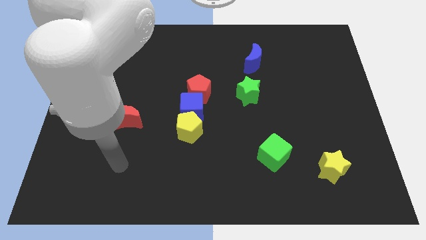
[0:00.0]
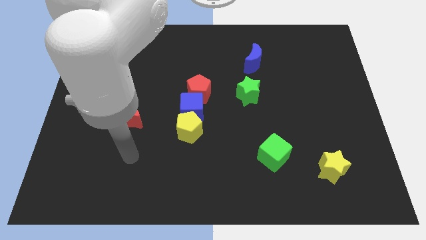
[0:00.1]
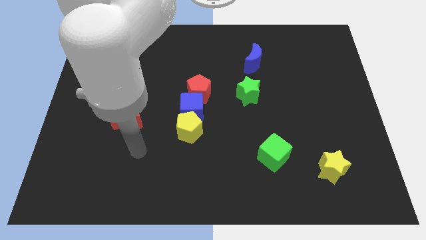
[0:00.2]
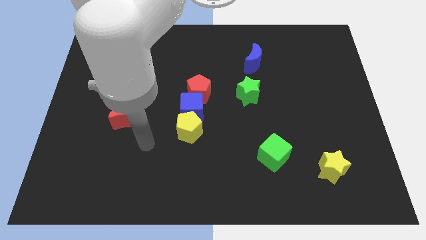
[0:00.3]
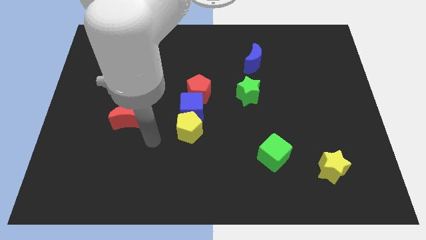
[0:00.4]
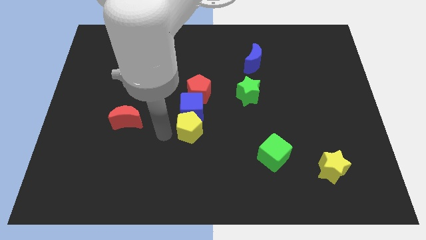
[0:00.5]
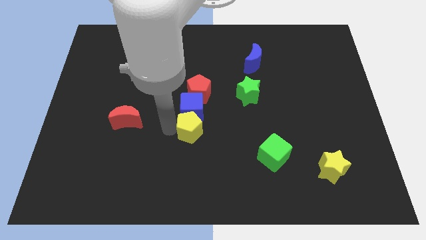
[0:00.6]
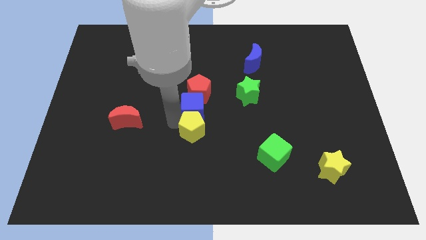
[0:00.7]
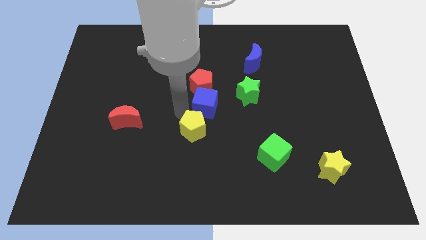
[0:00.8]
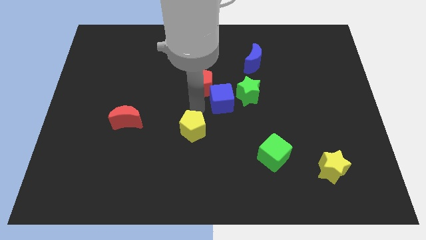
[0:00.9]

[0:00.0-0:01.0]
pull the yellow pentagon apart from the blue cube

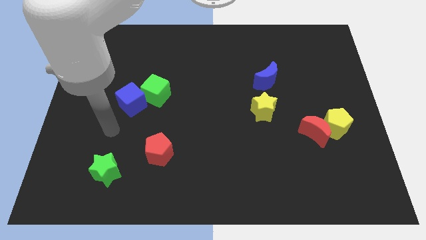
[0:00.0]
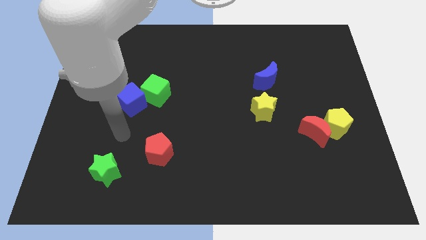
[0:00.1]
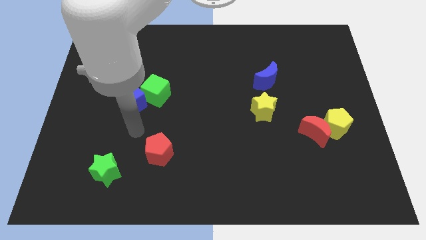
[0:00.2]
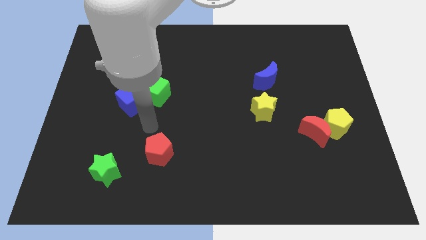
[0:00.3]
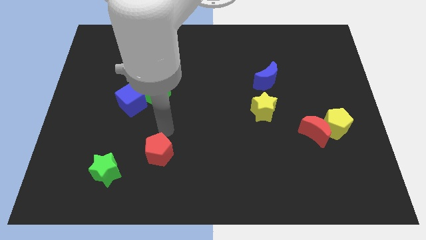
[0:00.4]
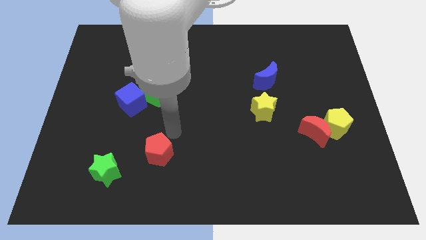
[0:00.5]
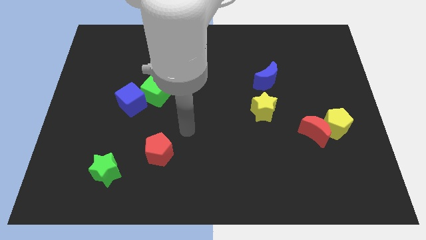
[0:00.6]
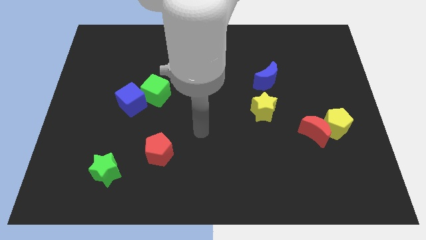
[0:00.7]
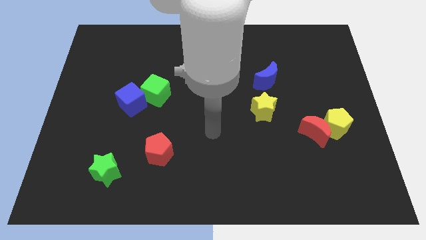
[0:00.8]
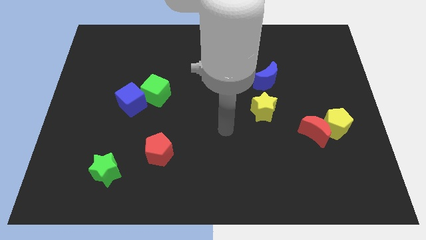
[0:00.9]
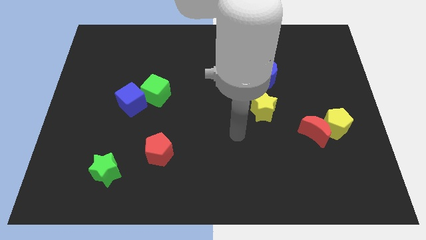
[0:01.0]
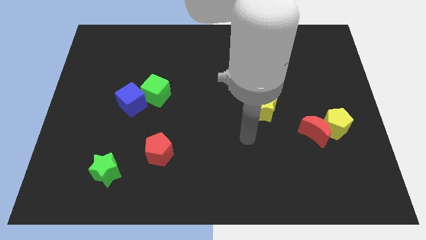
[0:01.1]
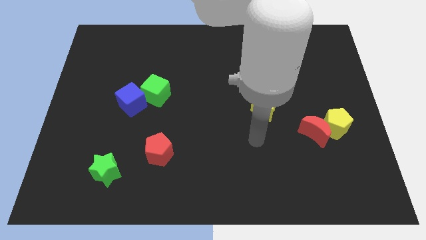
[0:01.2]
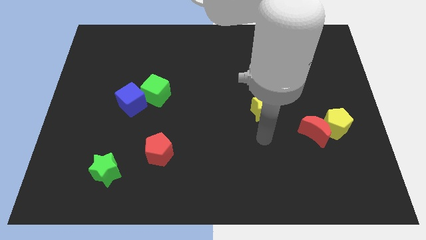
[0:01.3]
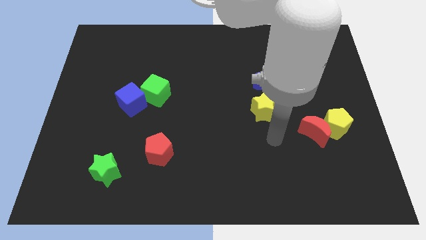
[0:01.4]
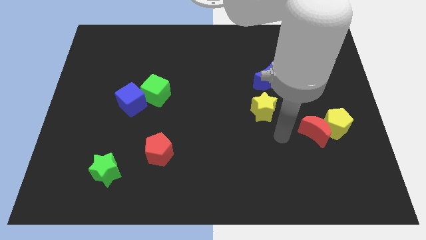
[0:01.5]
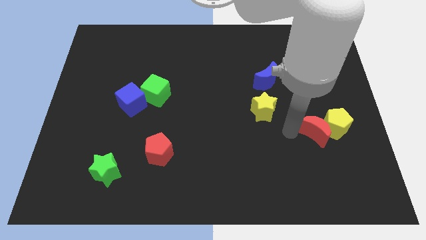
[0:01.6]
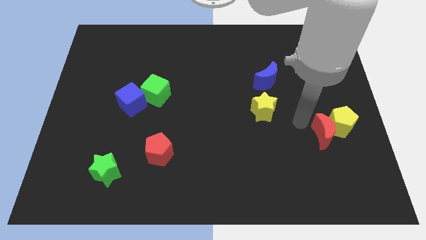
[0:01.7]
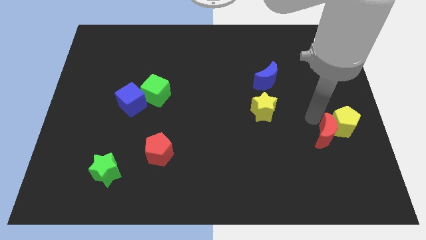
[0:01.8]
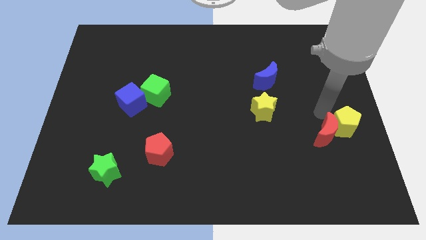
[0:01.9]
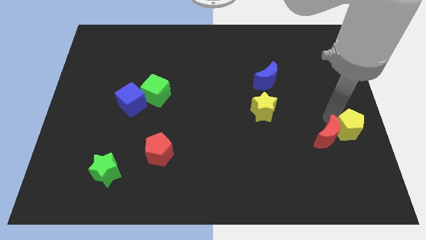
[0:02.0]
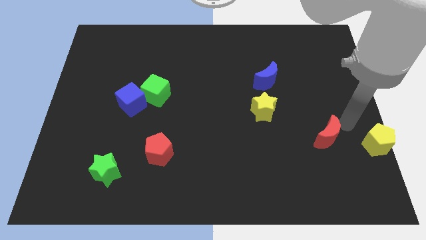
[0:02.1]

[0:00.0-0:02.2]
separate the red moon from the yellow pentagon

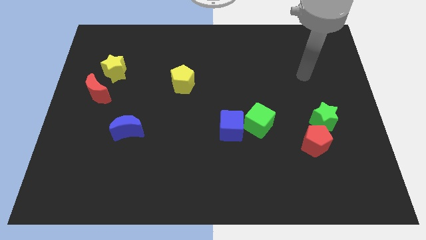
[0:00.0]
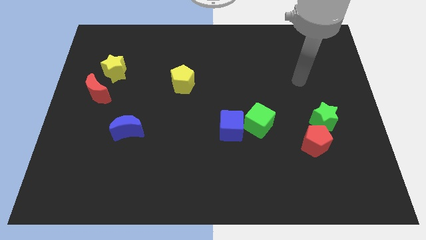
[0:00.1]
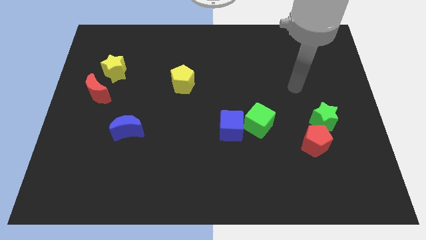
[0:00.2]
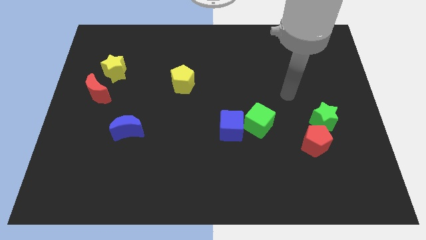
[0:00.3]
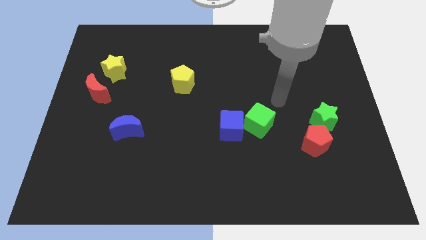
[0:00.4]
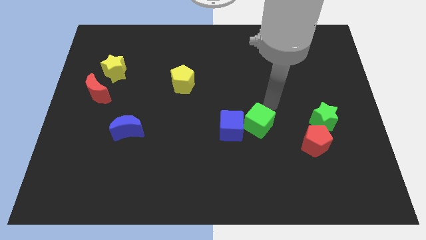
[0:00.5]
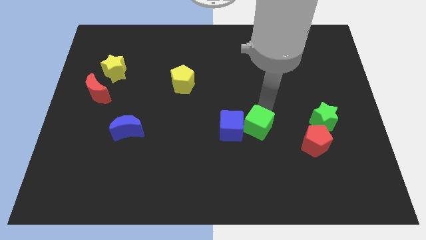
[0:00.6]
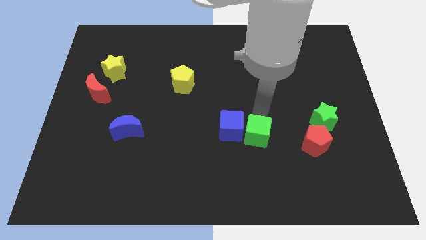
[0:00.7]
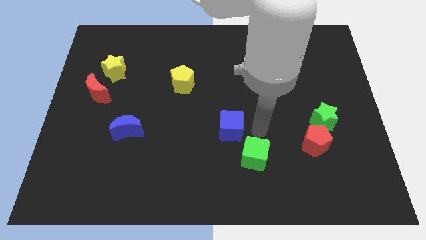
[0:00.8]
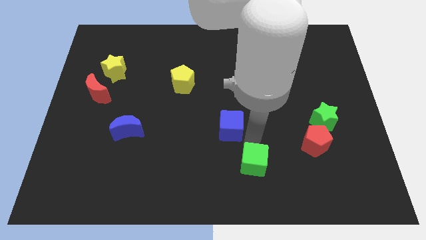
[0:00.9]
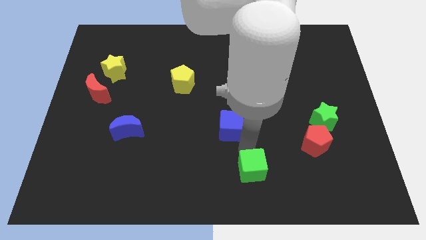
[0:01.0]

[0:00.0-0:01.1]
move the blue cube away from the green cube

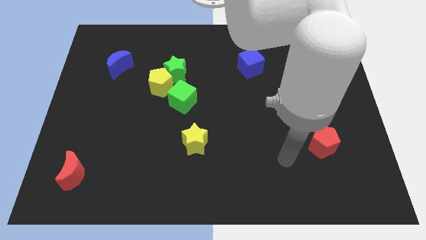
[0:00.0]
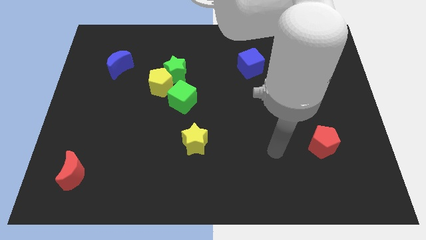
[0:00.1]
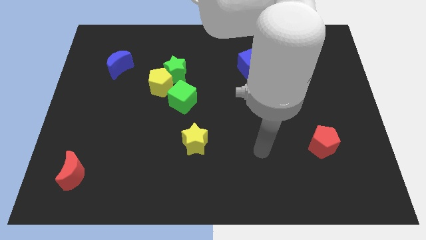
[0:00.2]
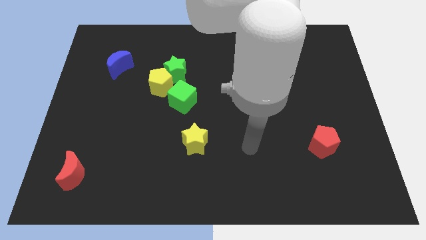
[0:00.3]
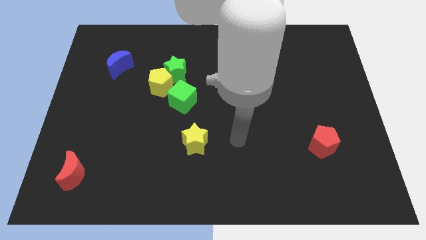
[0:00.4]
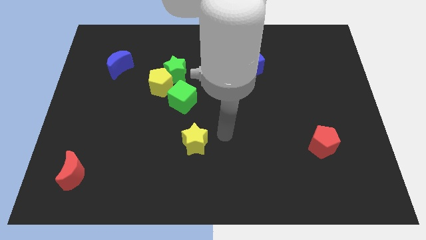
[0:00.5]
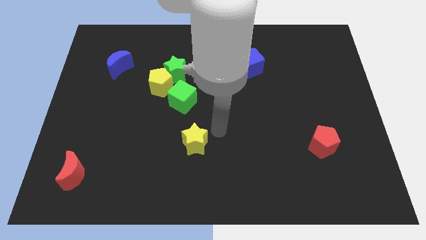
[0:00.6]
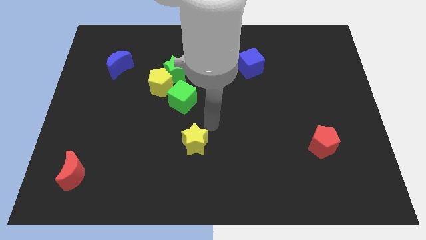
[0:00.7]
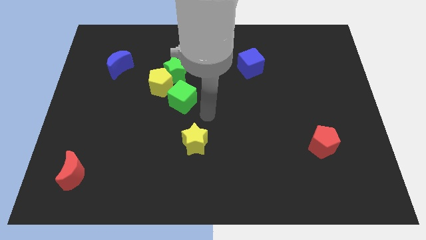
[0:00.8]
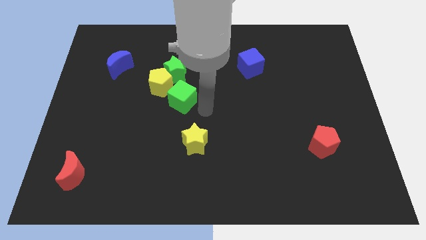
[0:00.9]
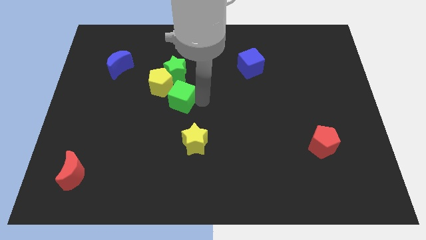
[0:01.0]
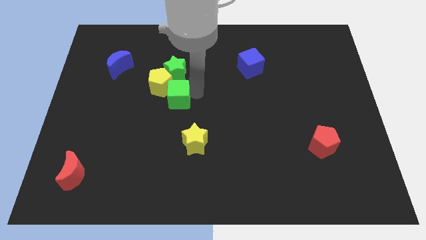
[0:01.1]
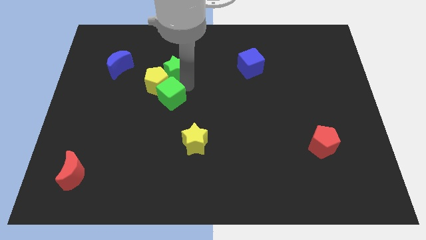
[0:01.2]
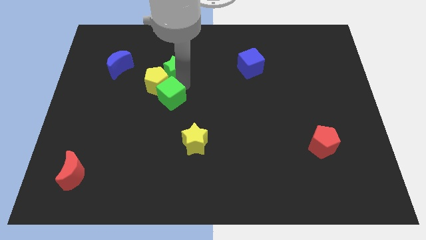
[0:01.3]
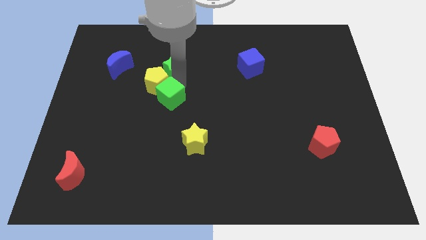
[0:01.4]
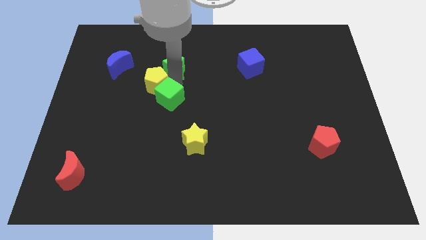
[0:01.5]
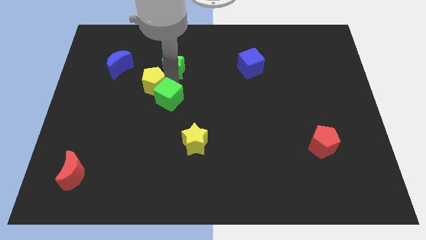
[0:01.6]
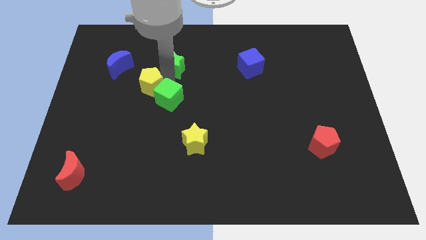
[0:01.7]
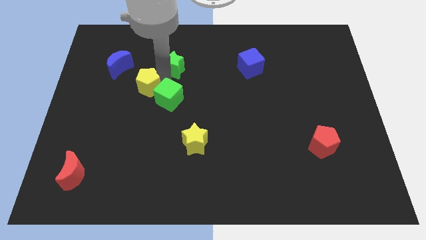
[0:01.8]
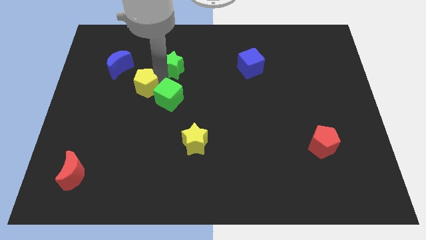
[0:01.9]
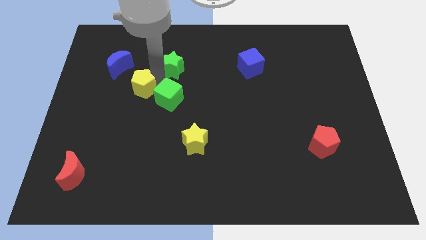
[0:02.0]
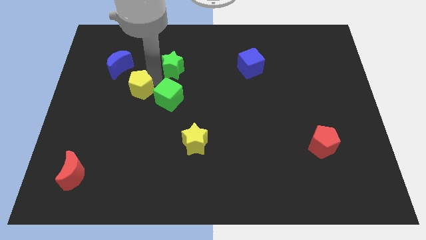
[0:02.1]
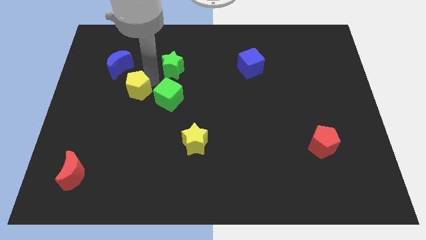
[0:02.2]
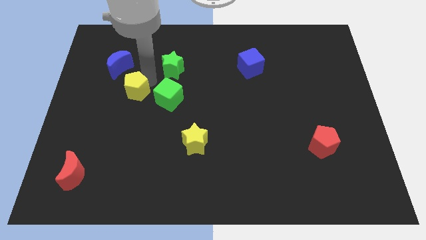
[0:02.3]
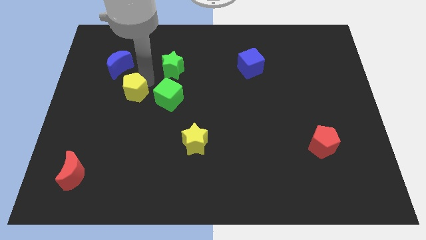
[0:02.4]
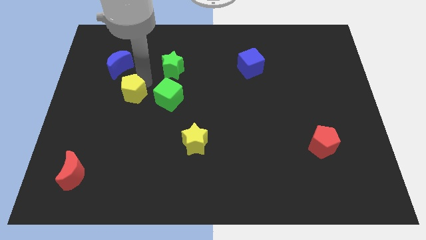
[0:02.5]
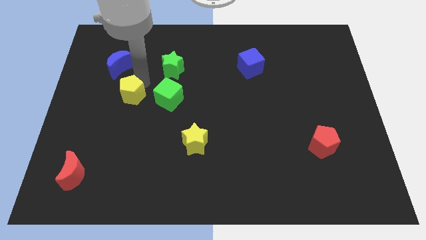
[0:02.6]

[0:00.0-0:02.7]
pull the yellow pentagon apart from the green star and green cube

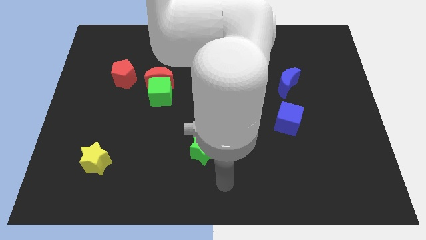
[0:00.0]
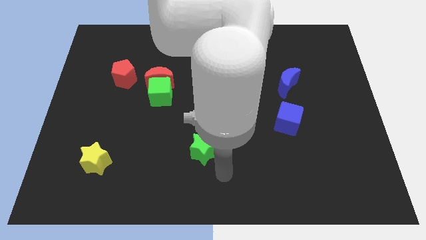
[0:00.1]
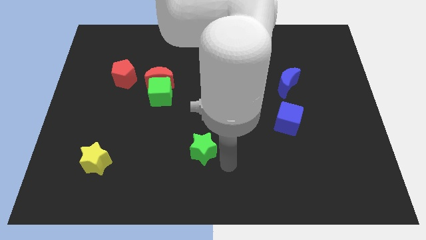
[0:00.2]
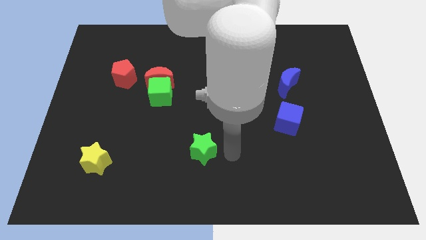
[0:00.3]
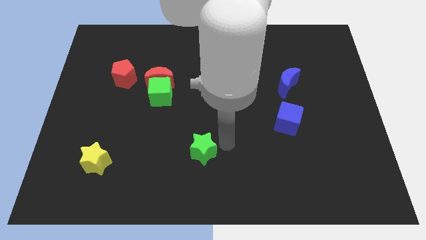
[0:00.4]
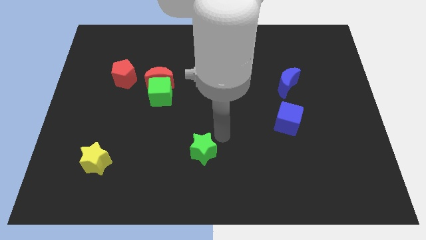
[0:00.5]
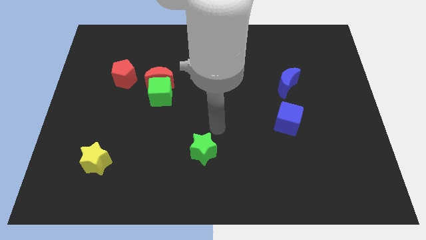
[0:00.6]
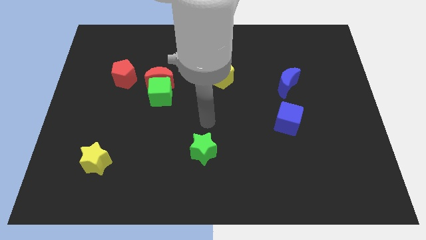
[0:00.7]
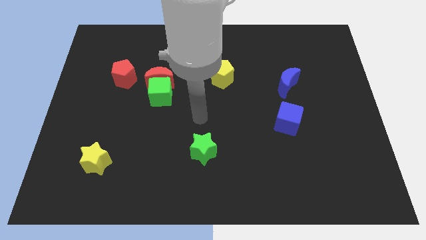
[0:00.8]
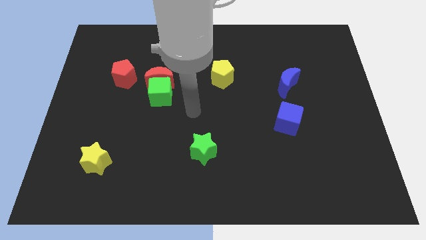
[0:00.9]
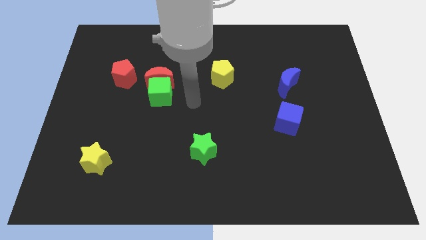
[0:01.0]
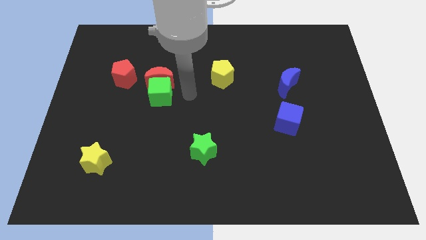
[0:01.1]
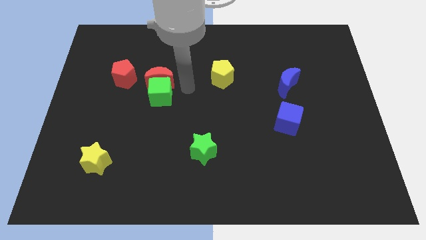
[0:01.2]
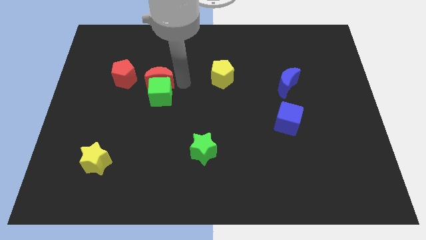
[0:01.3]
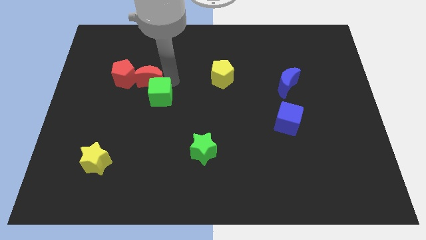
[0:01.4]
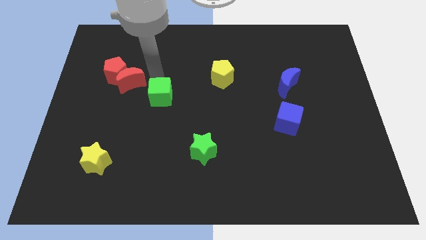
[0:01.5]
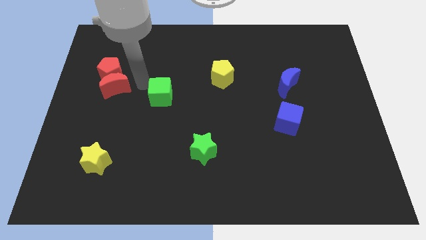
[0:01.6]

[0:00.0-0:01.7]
pull the green cube apart from the red moon

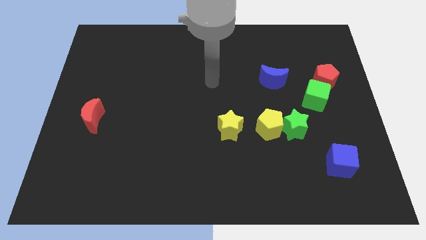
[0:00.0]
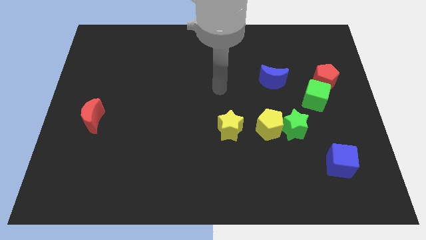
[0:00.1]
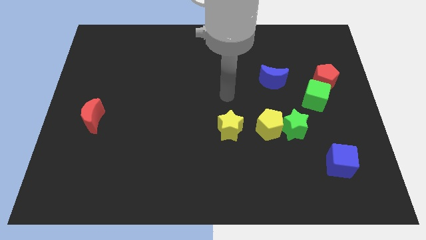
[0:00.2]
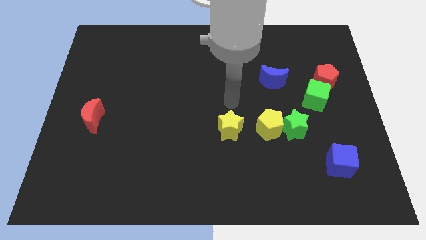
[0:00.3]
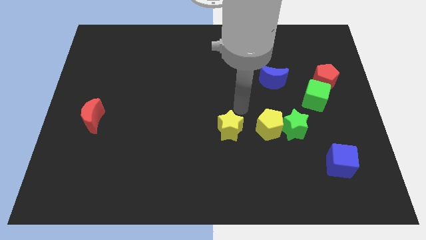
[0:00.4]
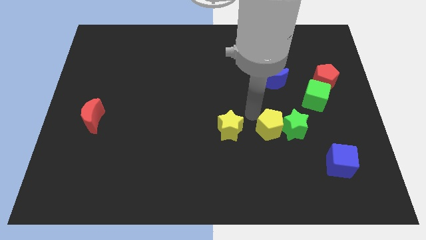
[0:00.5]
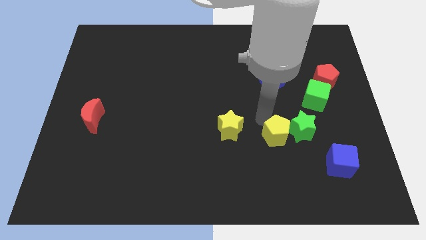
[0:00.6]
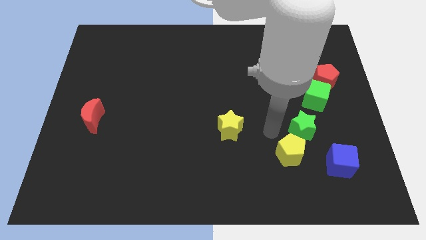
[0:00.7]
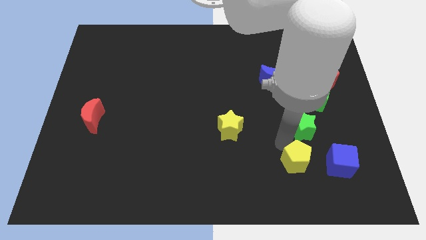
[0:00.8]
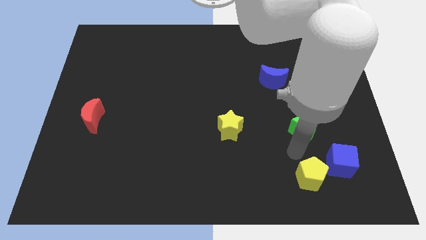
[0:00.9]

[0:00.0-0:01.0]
pull the green star apart from the yellow pentagon
